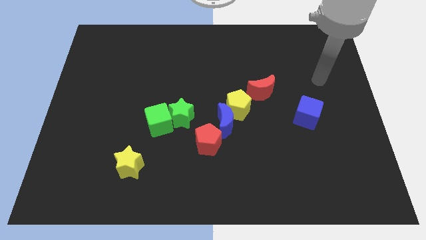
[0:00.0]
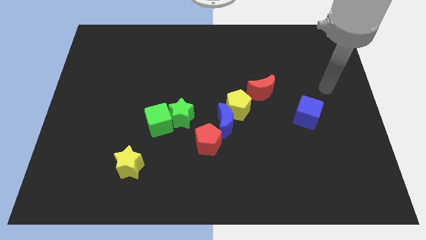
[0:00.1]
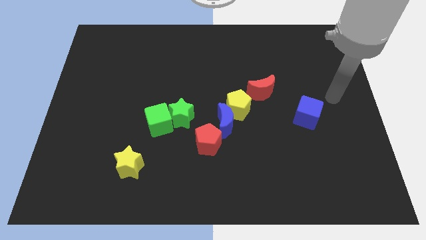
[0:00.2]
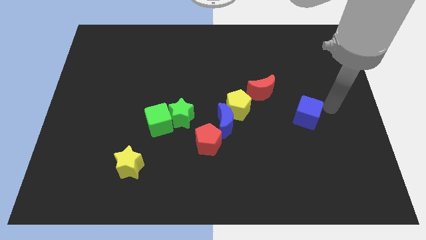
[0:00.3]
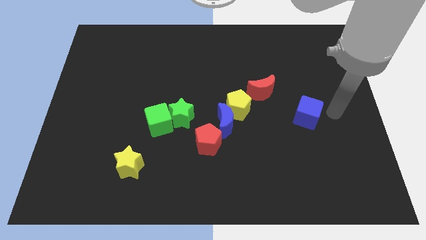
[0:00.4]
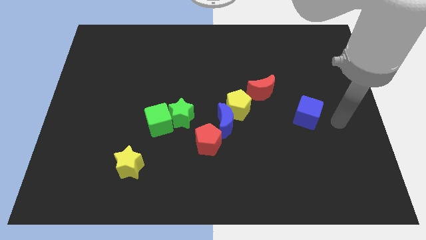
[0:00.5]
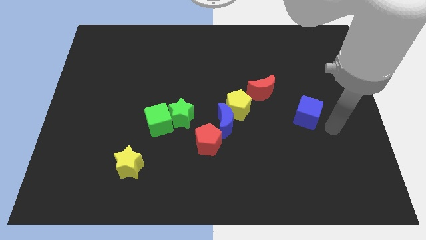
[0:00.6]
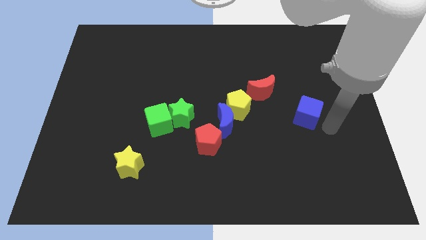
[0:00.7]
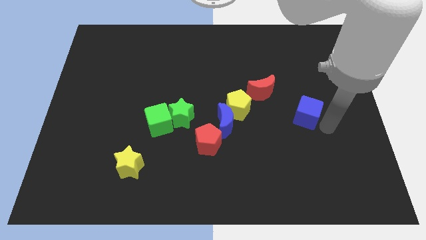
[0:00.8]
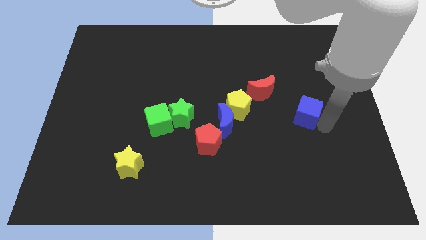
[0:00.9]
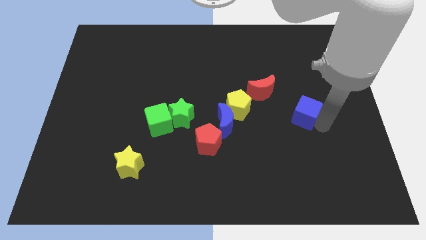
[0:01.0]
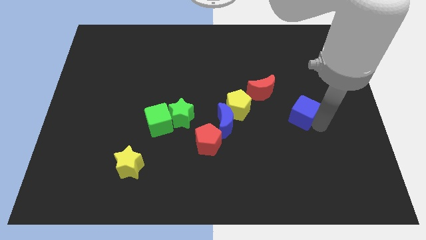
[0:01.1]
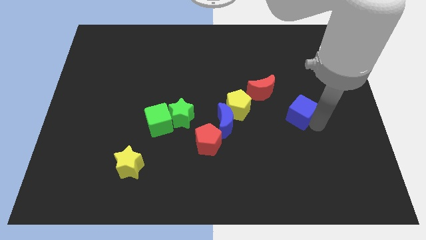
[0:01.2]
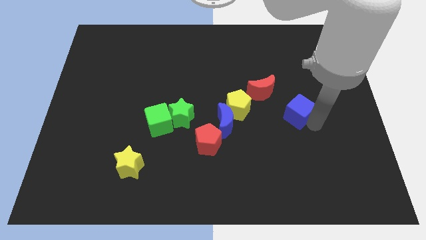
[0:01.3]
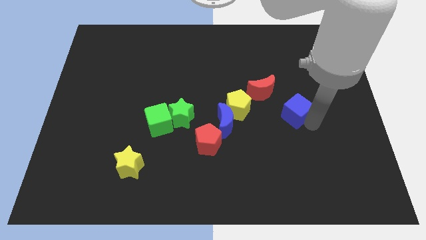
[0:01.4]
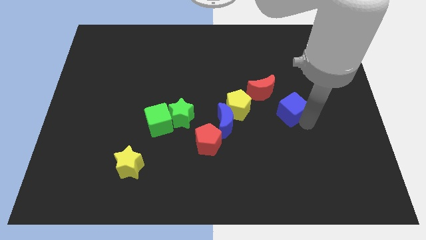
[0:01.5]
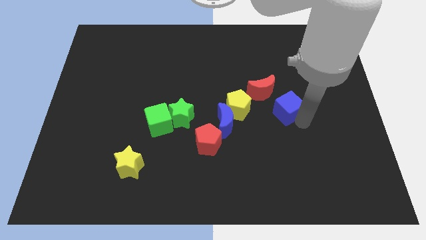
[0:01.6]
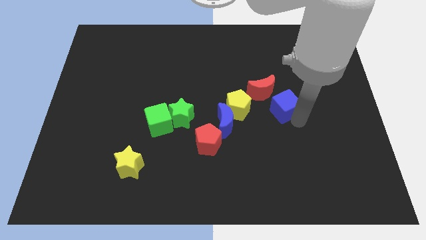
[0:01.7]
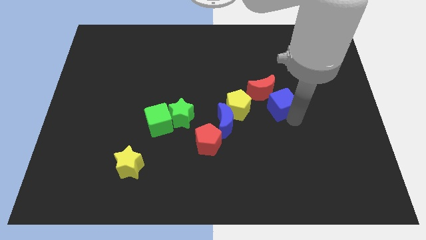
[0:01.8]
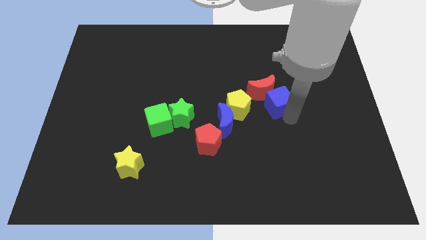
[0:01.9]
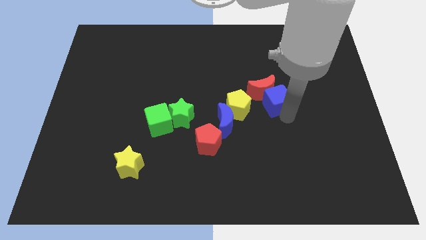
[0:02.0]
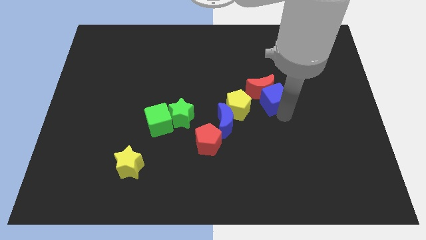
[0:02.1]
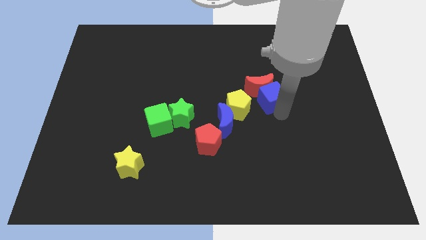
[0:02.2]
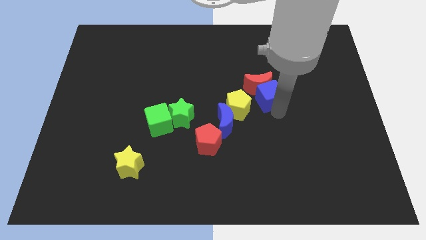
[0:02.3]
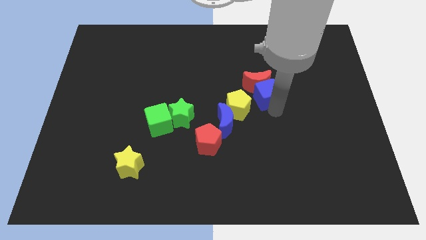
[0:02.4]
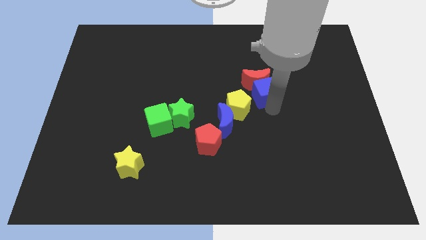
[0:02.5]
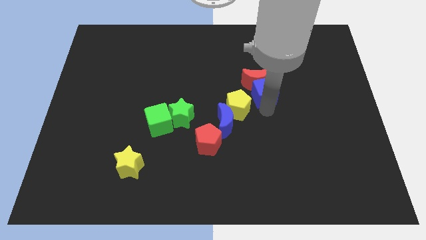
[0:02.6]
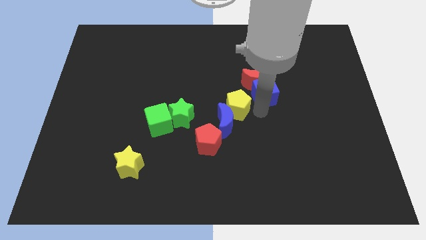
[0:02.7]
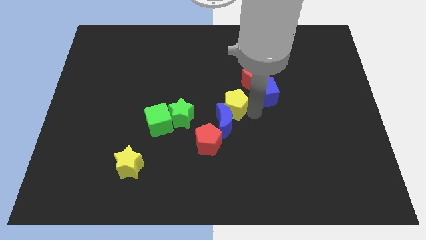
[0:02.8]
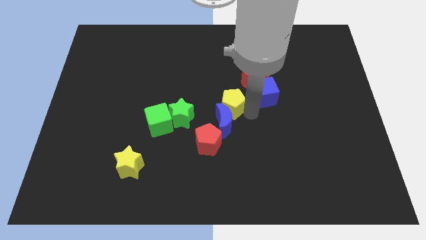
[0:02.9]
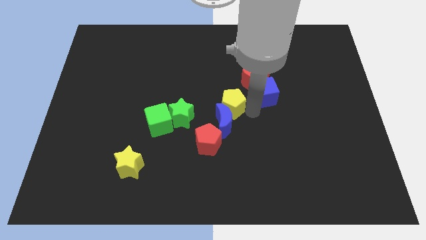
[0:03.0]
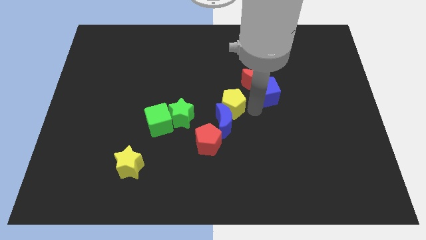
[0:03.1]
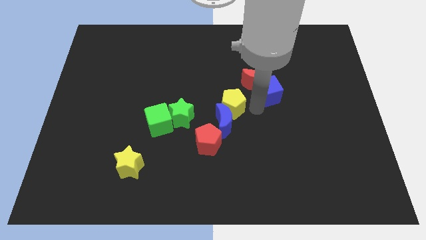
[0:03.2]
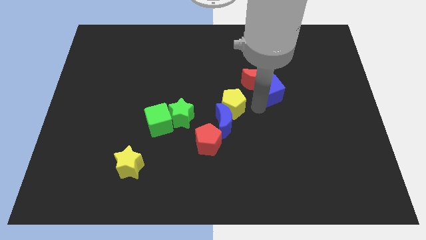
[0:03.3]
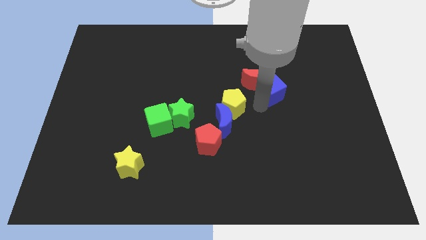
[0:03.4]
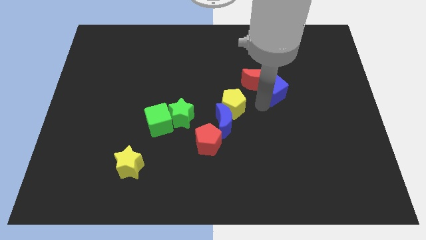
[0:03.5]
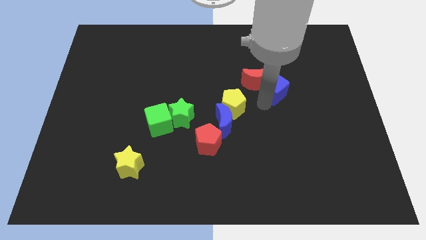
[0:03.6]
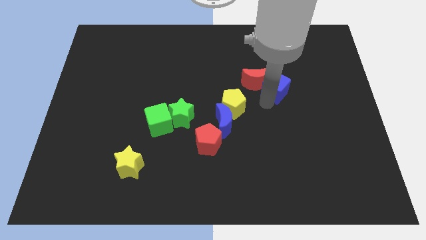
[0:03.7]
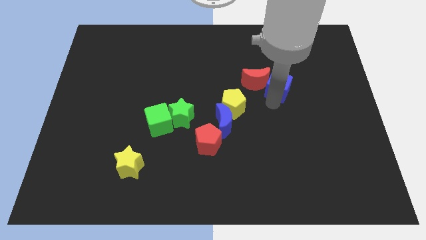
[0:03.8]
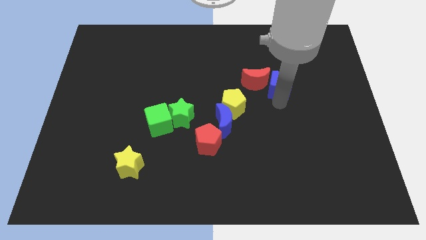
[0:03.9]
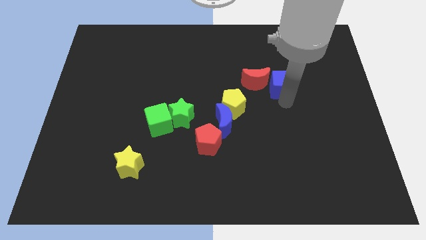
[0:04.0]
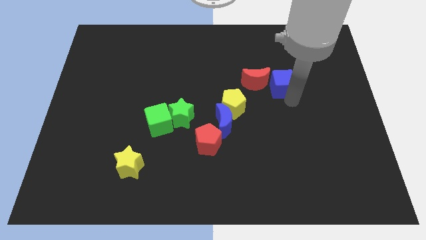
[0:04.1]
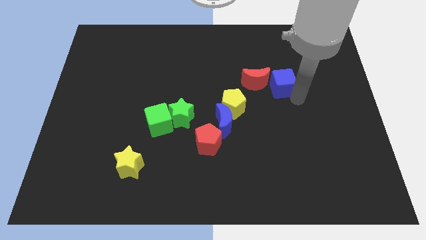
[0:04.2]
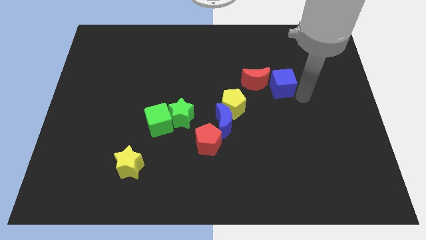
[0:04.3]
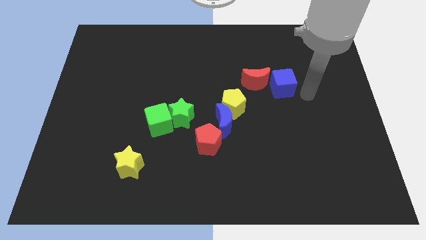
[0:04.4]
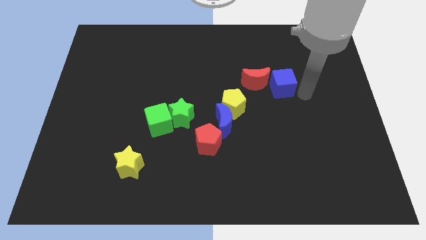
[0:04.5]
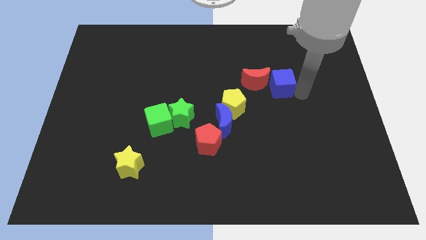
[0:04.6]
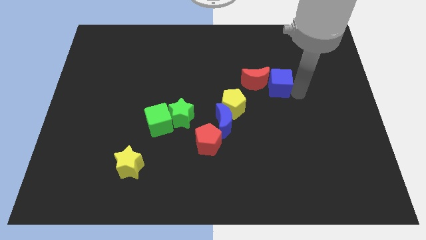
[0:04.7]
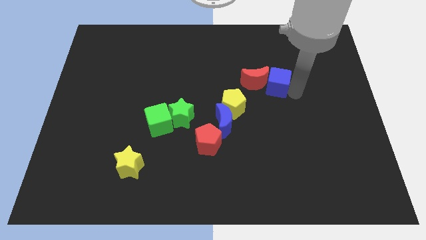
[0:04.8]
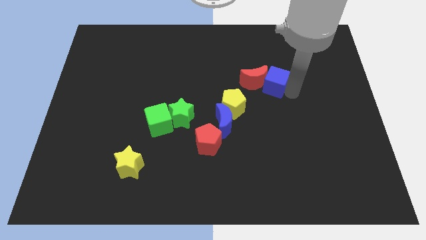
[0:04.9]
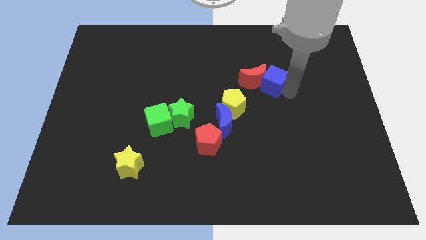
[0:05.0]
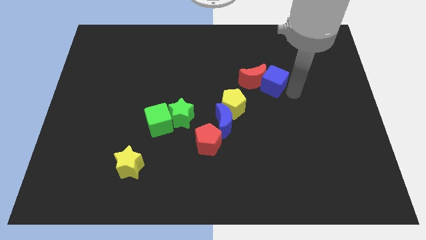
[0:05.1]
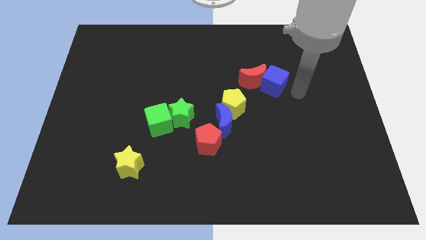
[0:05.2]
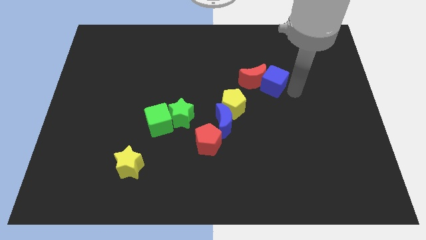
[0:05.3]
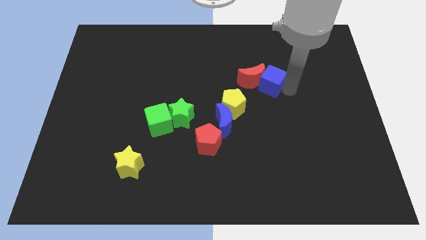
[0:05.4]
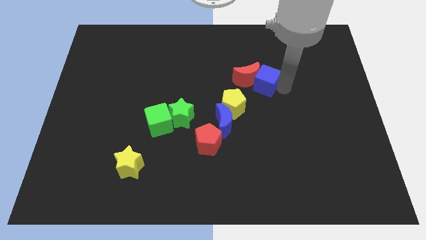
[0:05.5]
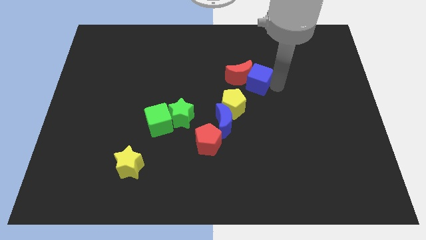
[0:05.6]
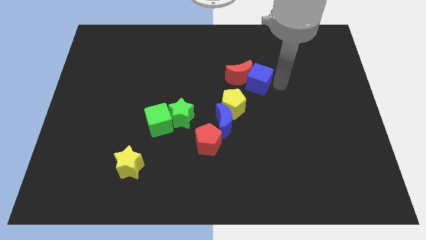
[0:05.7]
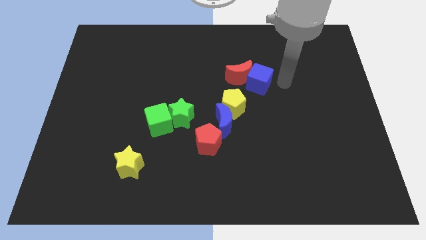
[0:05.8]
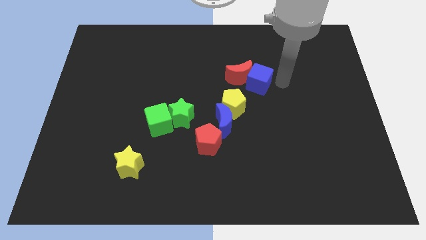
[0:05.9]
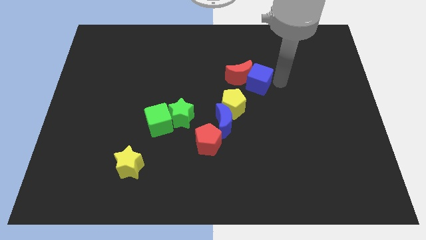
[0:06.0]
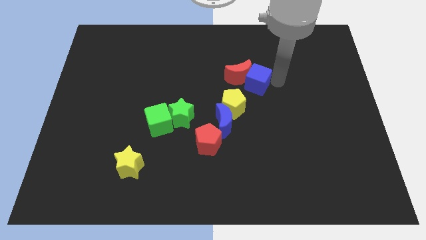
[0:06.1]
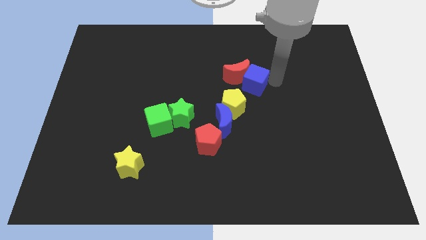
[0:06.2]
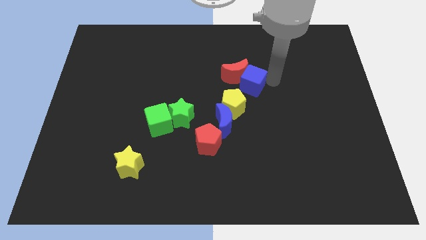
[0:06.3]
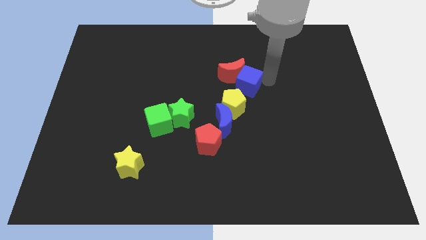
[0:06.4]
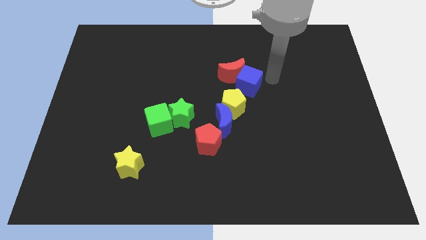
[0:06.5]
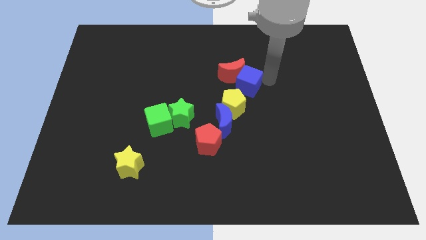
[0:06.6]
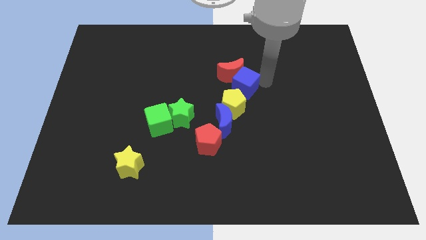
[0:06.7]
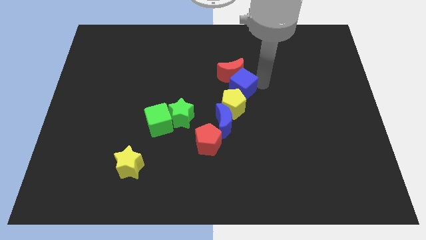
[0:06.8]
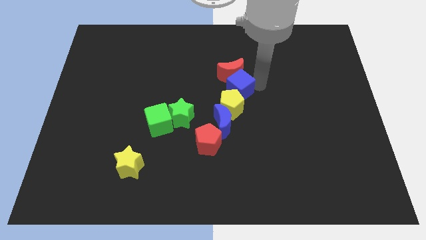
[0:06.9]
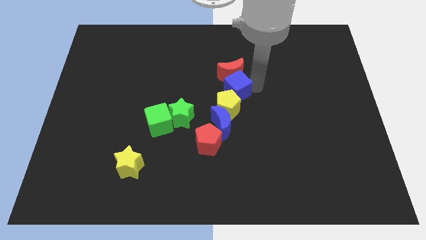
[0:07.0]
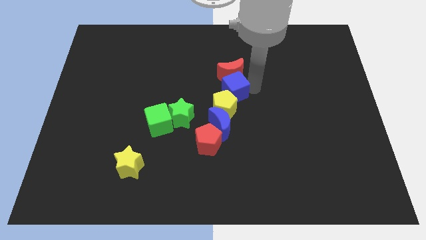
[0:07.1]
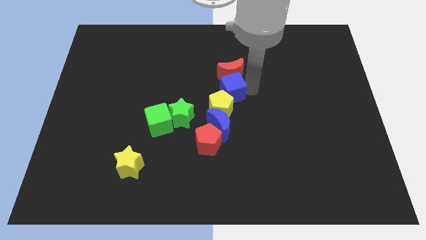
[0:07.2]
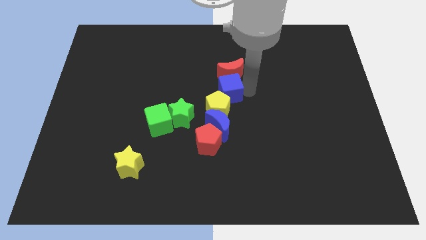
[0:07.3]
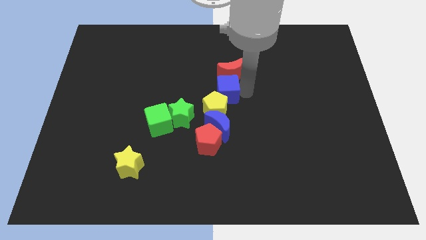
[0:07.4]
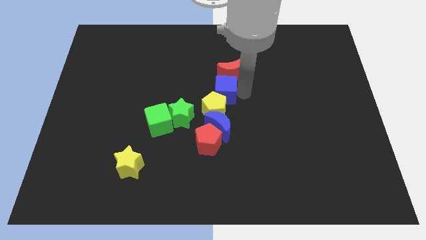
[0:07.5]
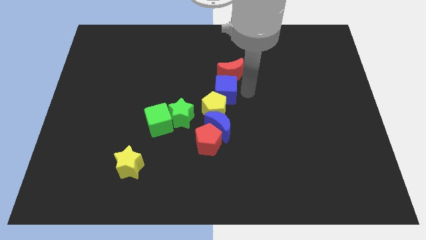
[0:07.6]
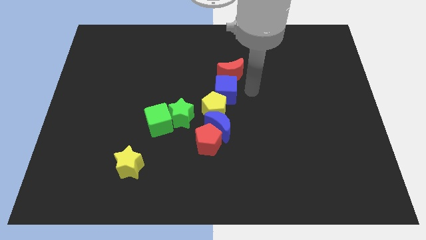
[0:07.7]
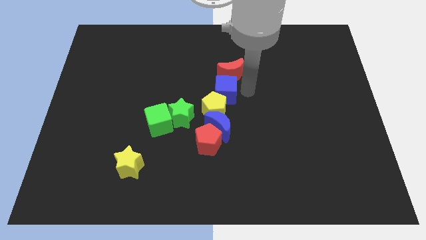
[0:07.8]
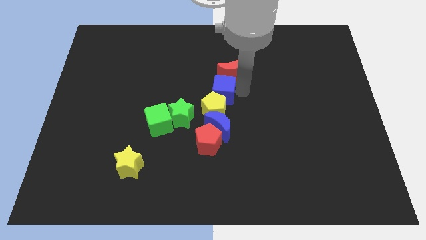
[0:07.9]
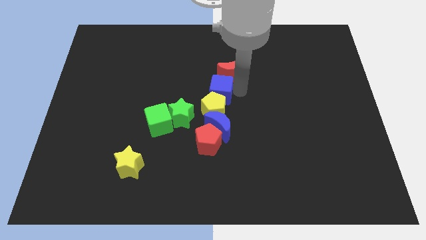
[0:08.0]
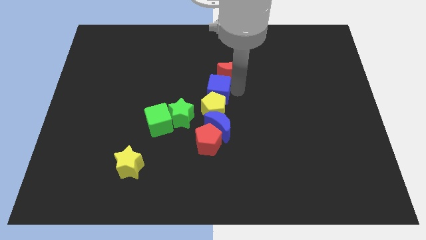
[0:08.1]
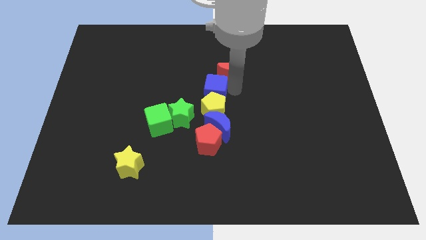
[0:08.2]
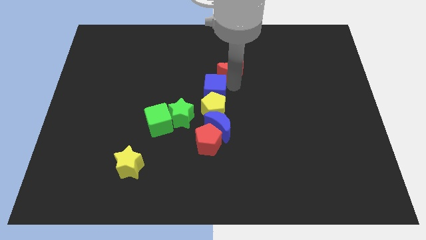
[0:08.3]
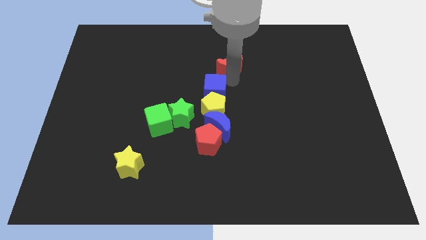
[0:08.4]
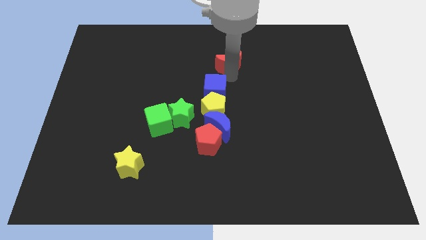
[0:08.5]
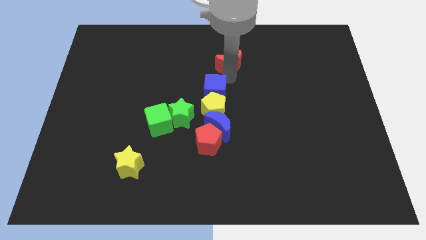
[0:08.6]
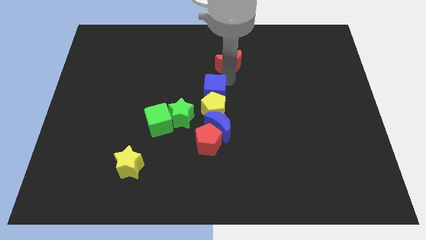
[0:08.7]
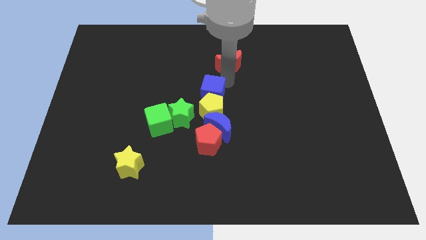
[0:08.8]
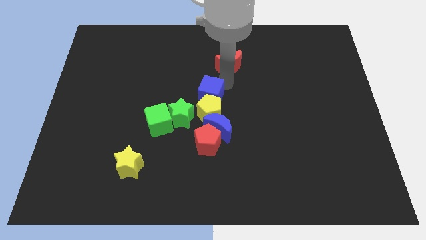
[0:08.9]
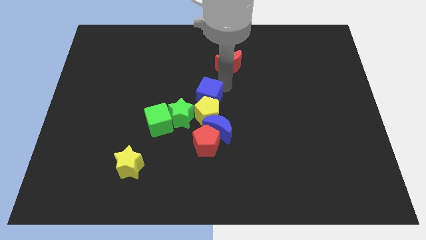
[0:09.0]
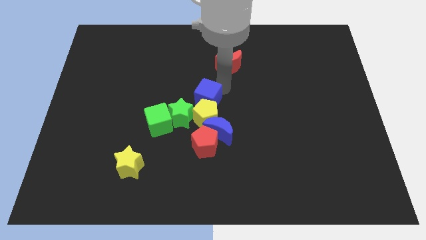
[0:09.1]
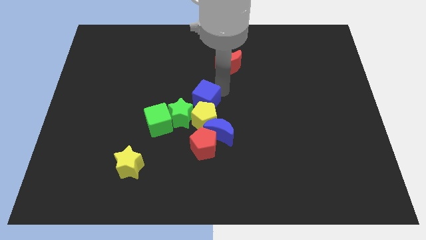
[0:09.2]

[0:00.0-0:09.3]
move the blue cube to the top left side of the blue moon
